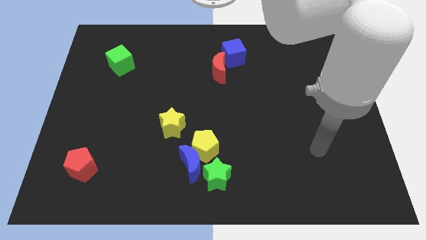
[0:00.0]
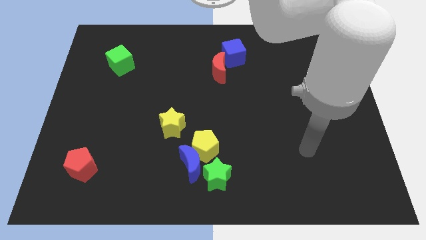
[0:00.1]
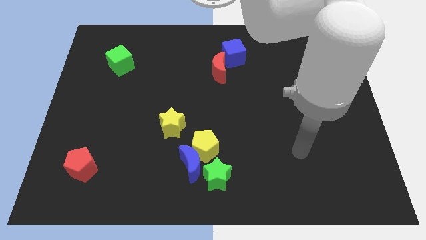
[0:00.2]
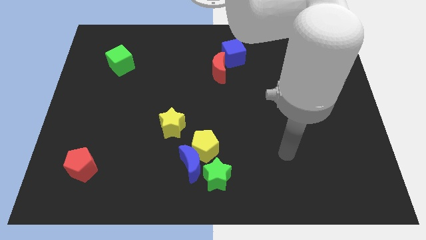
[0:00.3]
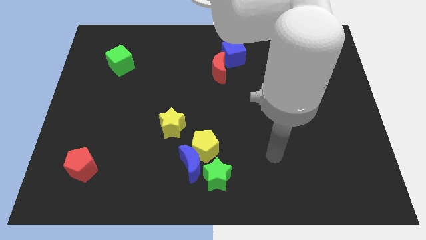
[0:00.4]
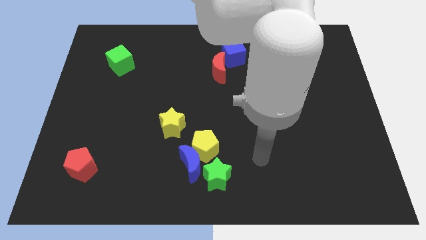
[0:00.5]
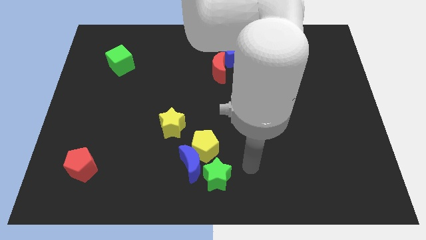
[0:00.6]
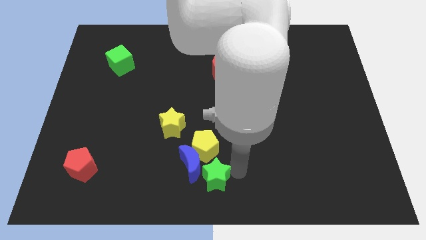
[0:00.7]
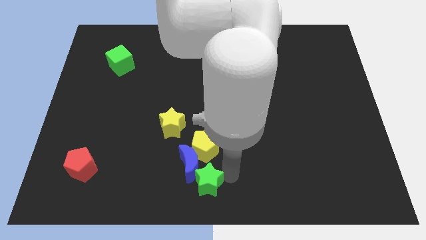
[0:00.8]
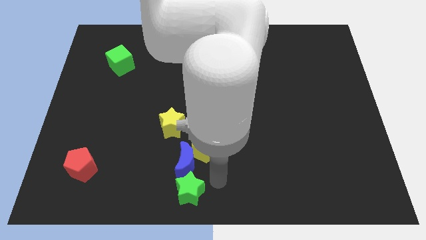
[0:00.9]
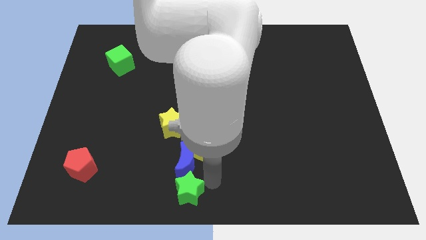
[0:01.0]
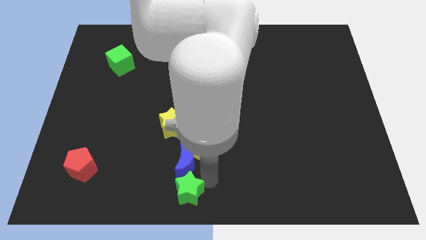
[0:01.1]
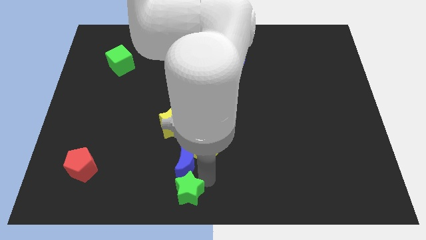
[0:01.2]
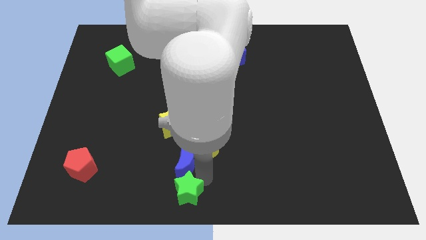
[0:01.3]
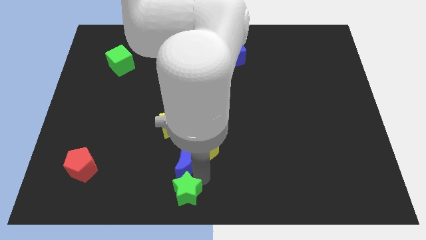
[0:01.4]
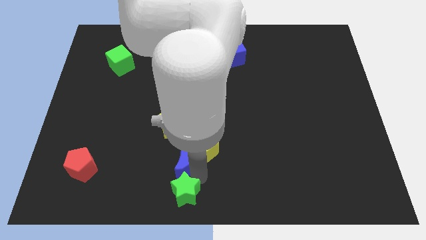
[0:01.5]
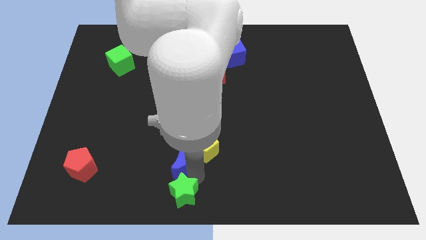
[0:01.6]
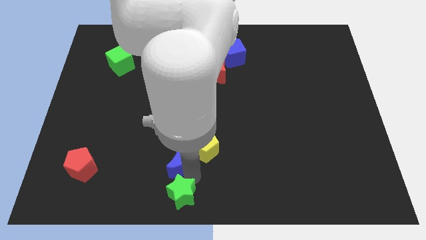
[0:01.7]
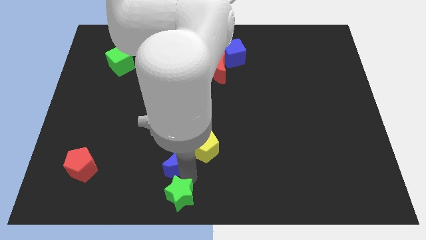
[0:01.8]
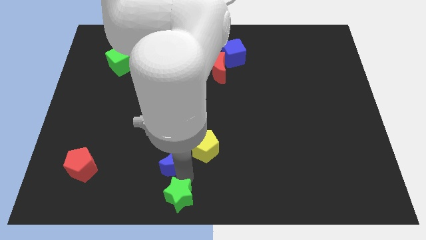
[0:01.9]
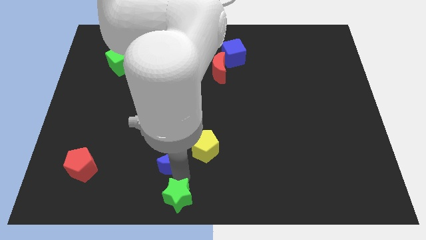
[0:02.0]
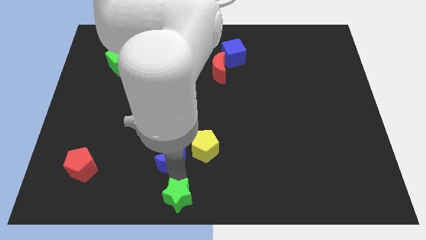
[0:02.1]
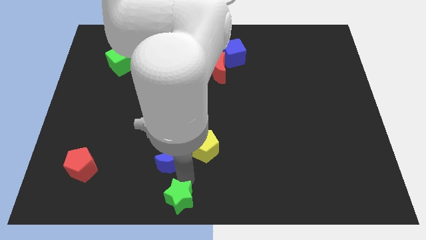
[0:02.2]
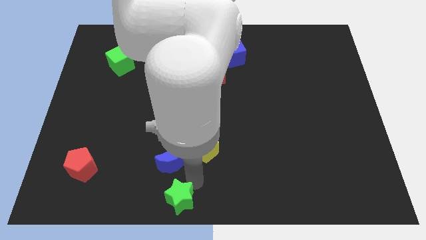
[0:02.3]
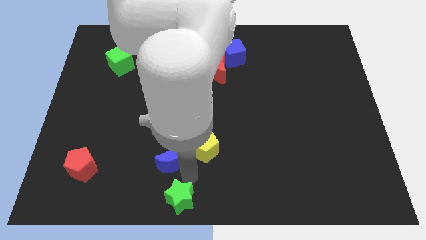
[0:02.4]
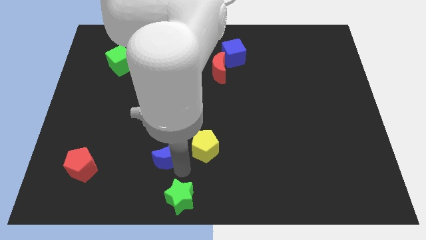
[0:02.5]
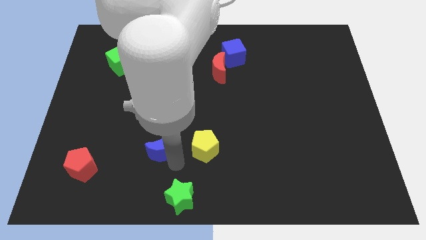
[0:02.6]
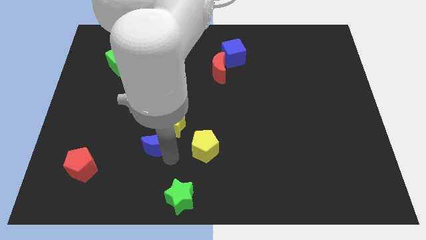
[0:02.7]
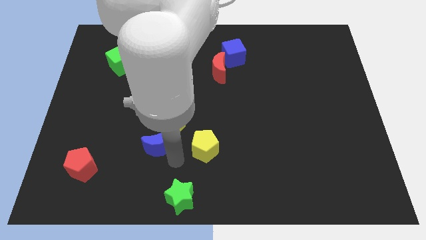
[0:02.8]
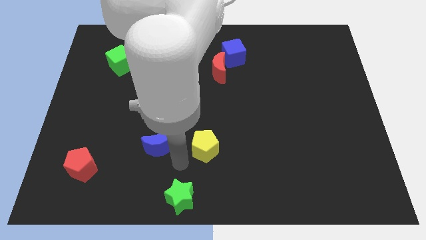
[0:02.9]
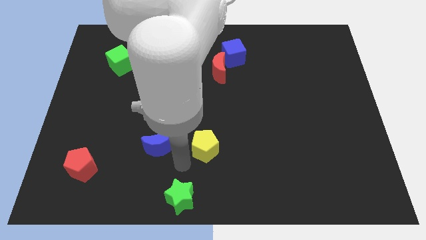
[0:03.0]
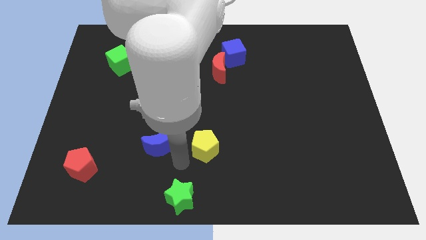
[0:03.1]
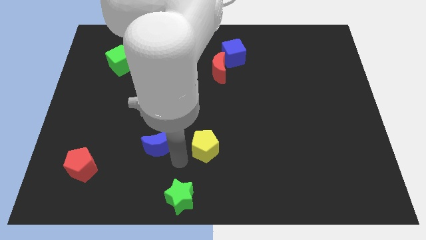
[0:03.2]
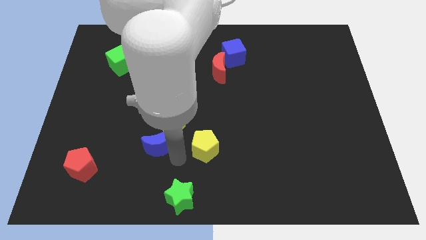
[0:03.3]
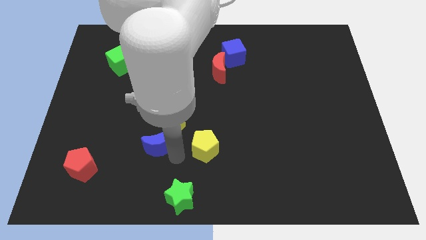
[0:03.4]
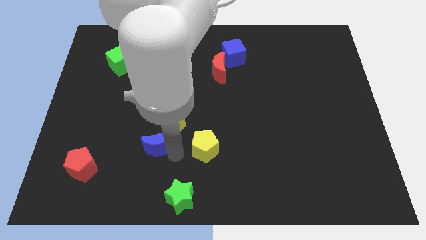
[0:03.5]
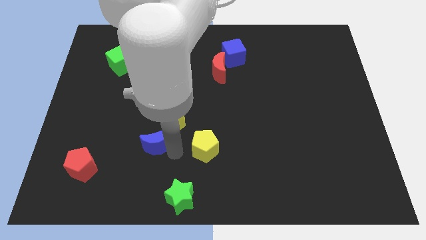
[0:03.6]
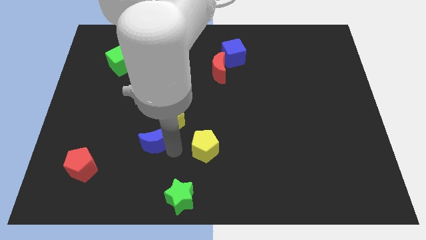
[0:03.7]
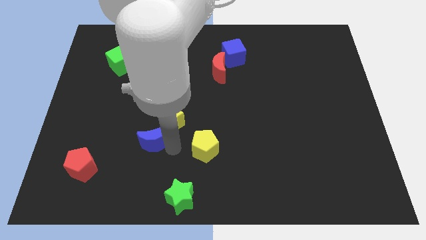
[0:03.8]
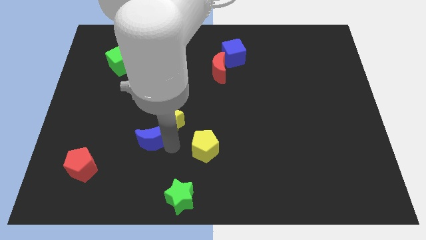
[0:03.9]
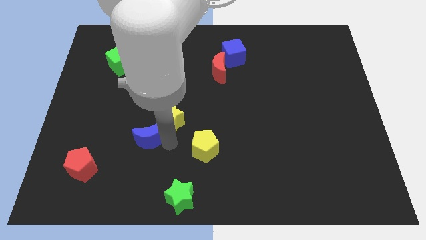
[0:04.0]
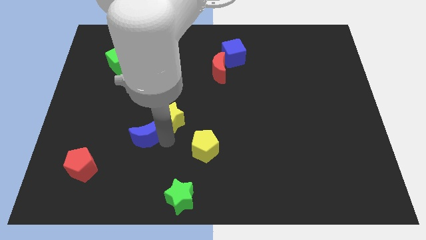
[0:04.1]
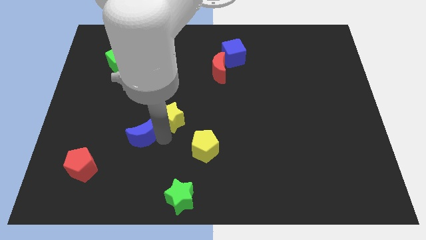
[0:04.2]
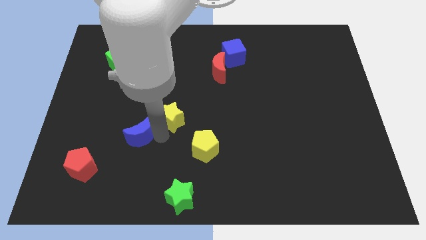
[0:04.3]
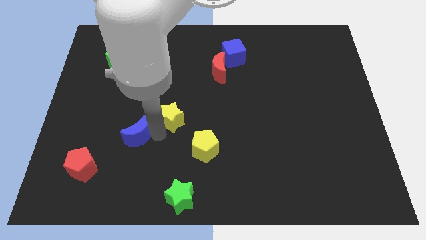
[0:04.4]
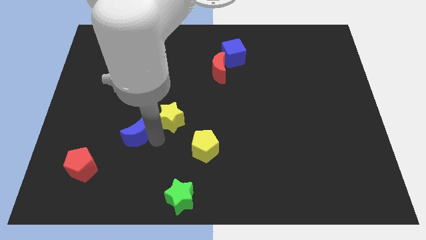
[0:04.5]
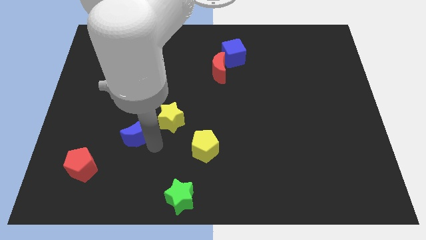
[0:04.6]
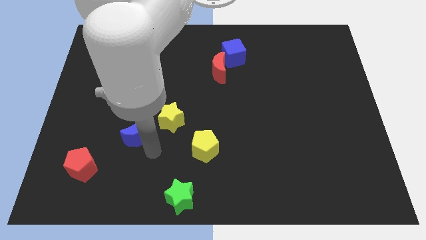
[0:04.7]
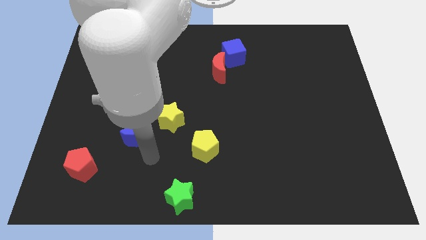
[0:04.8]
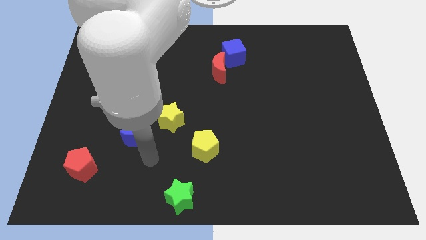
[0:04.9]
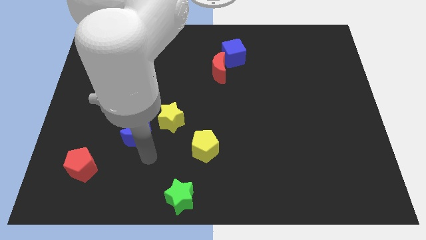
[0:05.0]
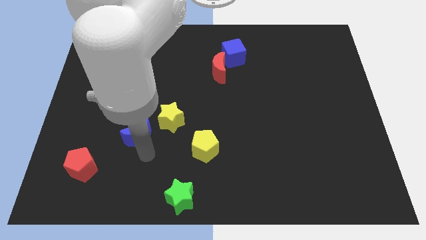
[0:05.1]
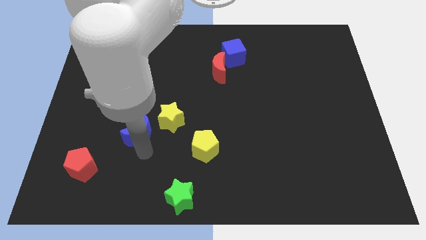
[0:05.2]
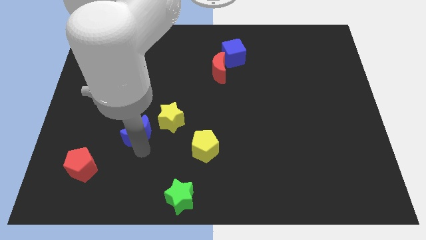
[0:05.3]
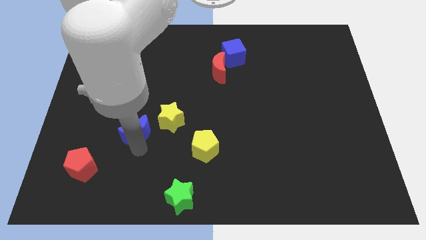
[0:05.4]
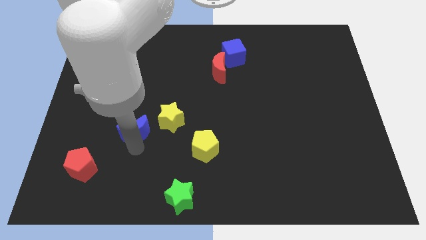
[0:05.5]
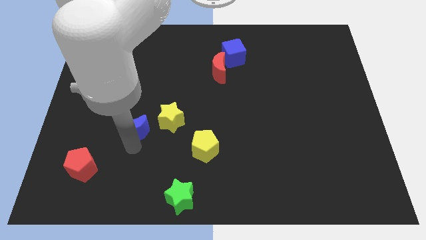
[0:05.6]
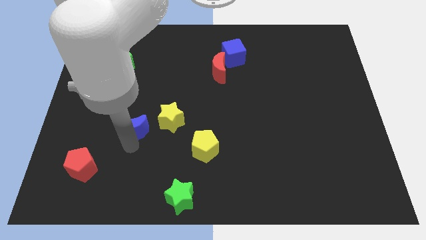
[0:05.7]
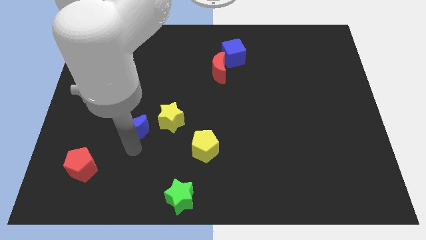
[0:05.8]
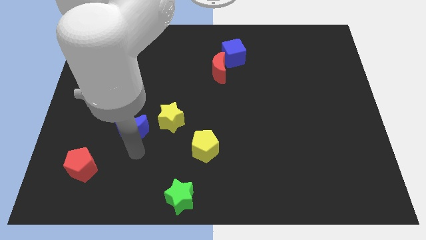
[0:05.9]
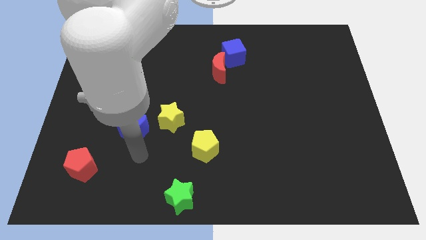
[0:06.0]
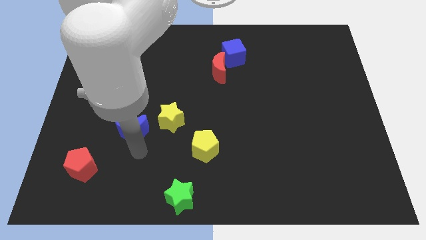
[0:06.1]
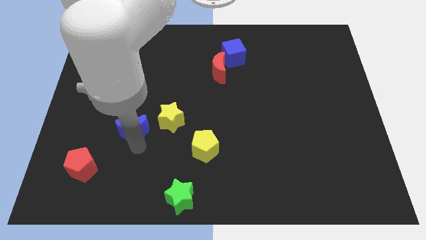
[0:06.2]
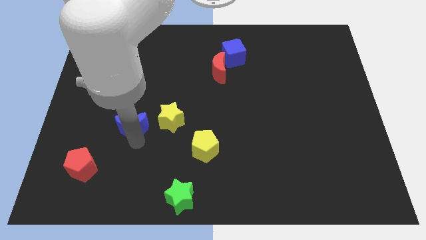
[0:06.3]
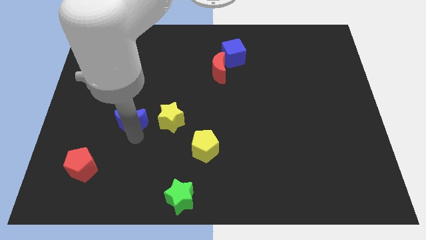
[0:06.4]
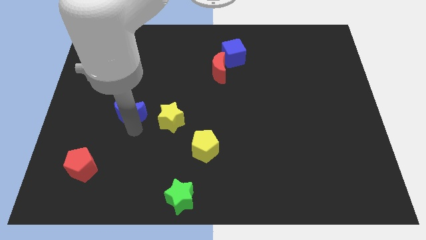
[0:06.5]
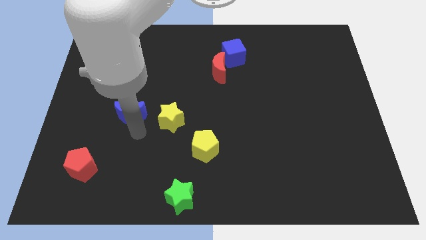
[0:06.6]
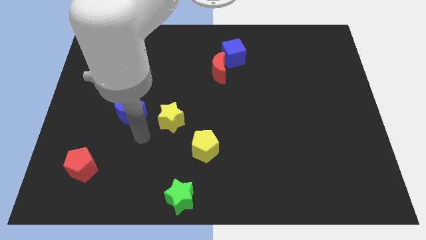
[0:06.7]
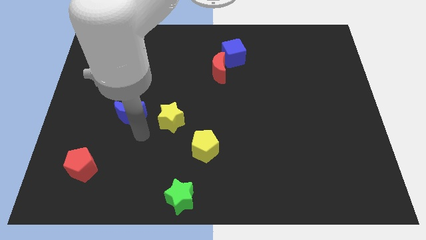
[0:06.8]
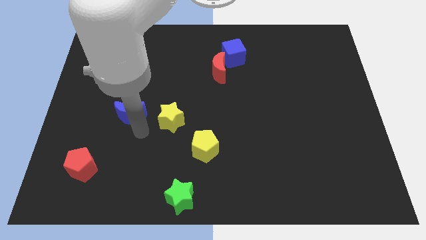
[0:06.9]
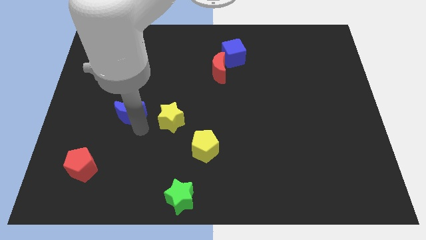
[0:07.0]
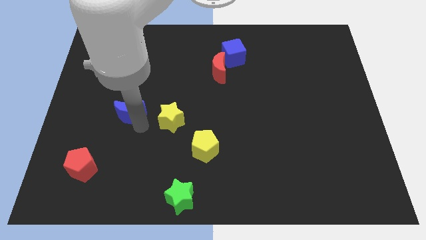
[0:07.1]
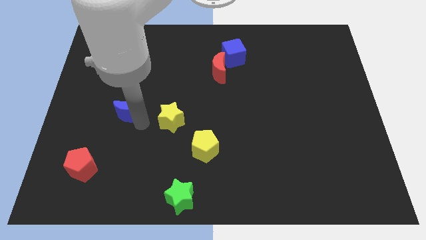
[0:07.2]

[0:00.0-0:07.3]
push the blue moon upwards and to the left

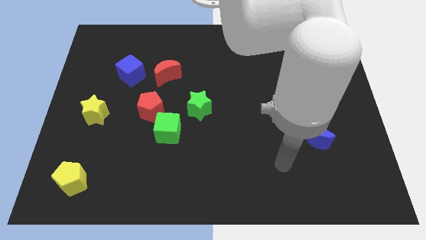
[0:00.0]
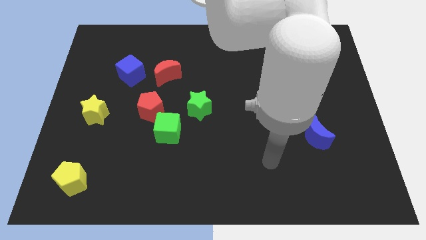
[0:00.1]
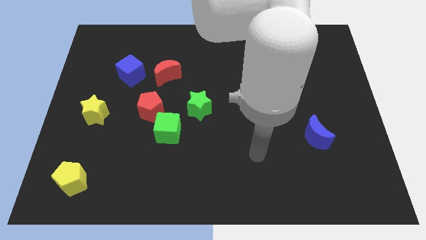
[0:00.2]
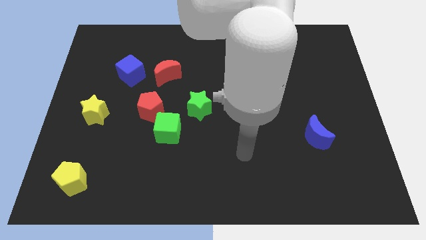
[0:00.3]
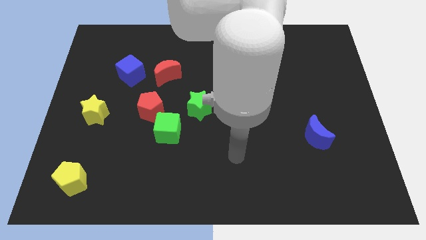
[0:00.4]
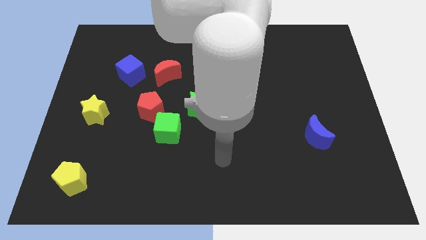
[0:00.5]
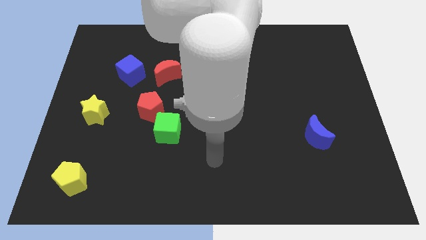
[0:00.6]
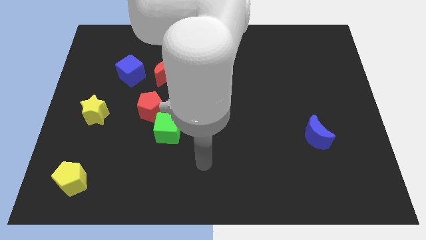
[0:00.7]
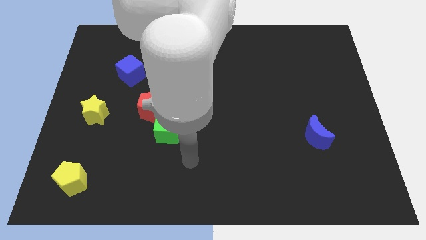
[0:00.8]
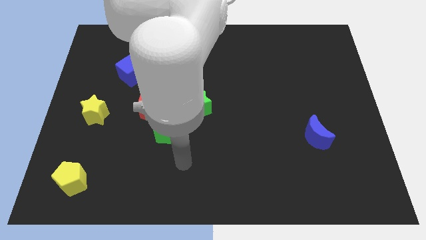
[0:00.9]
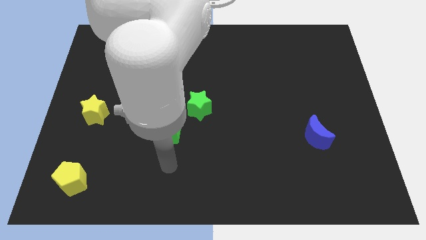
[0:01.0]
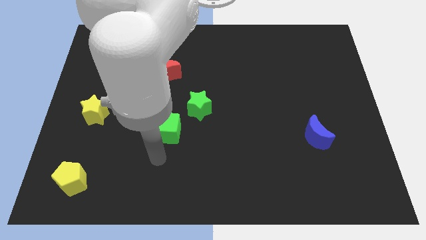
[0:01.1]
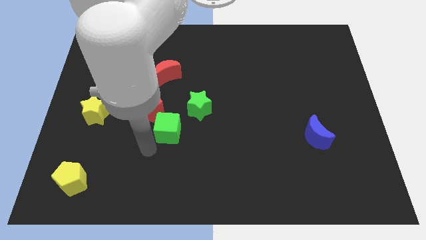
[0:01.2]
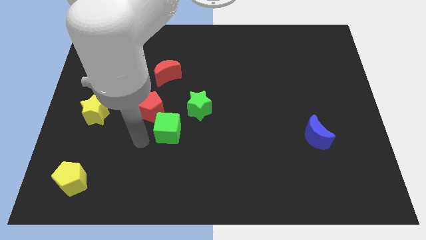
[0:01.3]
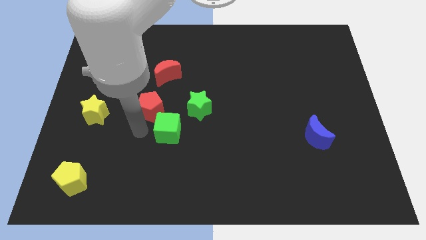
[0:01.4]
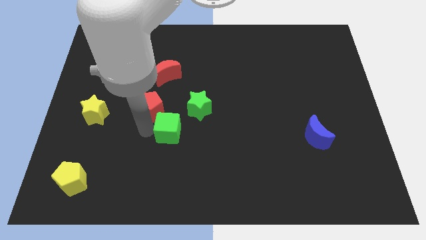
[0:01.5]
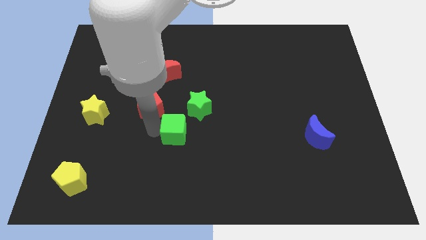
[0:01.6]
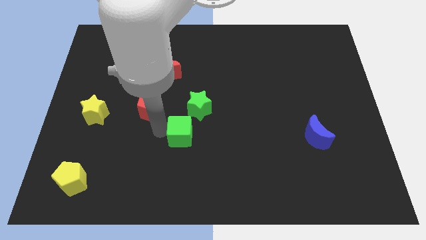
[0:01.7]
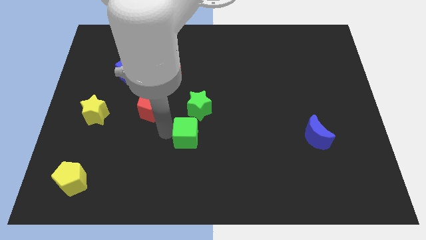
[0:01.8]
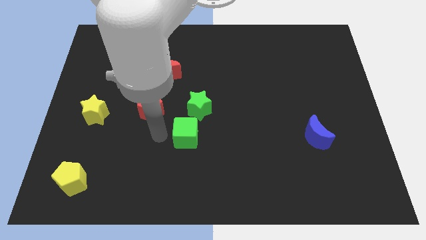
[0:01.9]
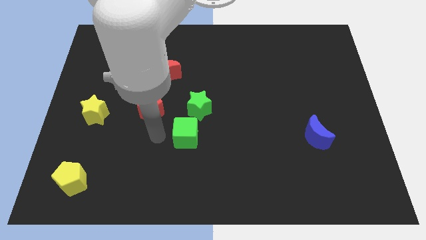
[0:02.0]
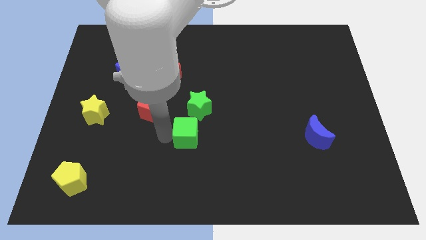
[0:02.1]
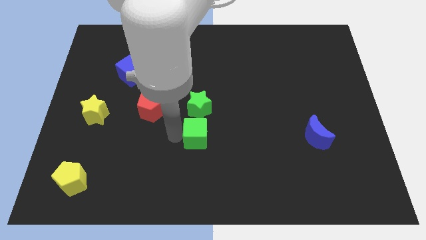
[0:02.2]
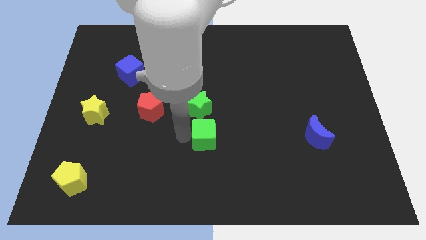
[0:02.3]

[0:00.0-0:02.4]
slide the green cube to the right a little bit
